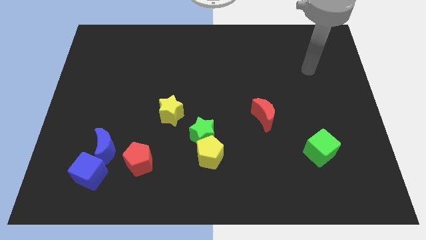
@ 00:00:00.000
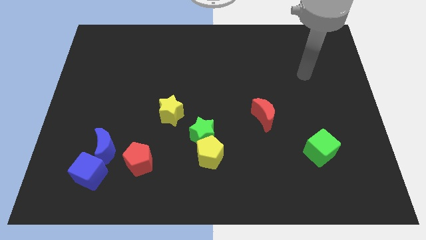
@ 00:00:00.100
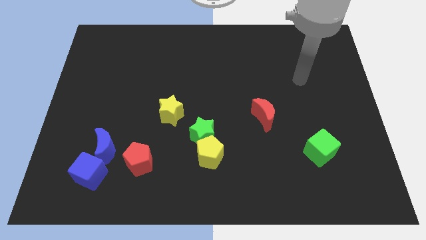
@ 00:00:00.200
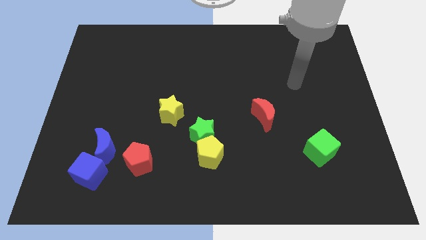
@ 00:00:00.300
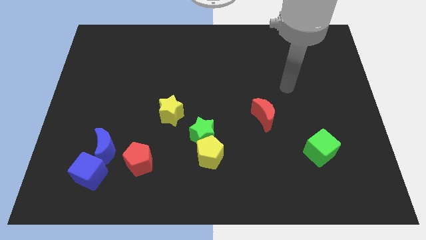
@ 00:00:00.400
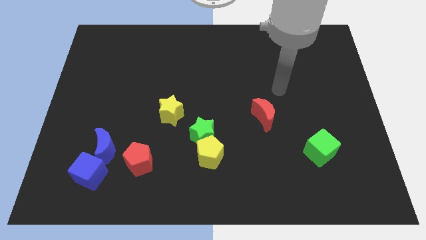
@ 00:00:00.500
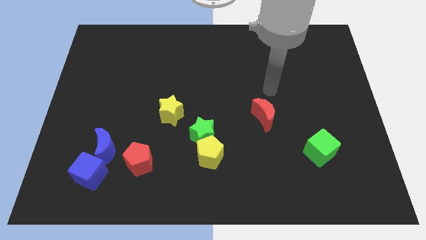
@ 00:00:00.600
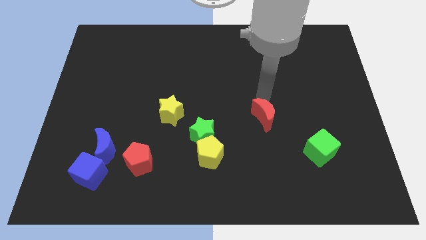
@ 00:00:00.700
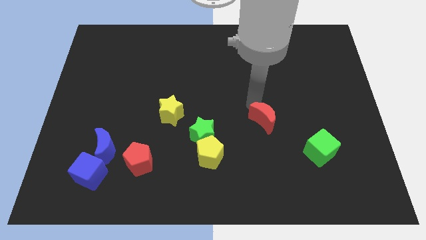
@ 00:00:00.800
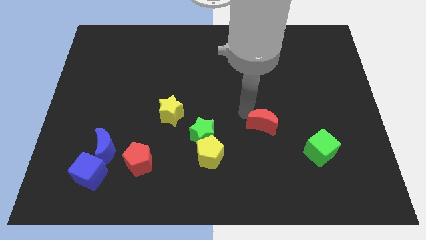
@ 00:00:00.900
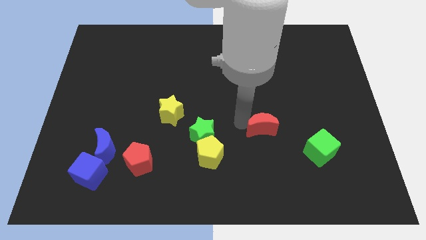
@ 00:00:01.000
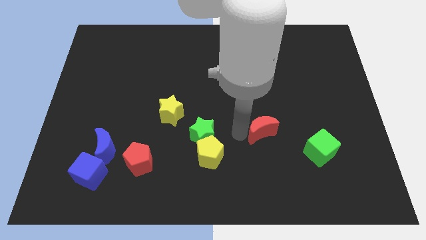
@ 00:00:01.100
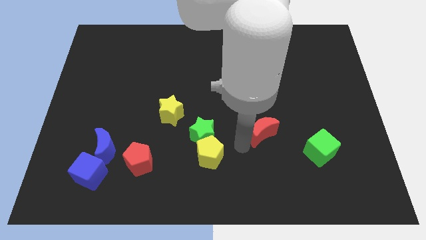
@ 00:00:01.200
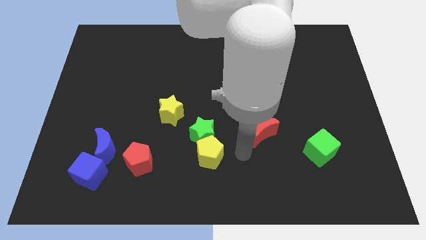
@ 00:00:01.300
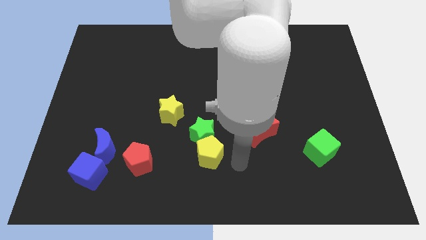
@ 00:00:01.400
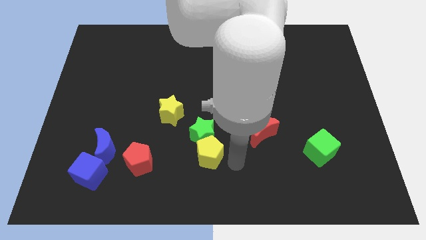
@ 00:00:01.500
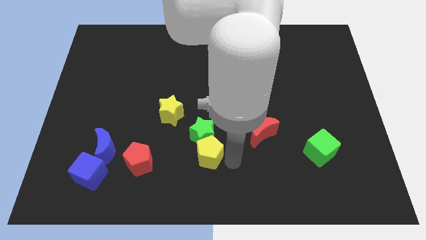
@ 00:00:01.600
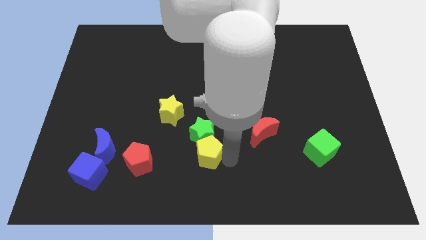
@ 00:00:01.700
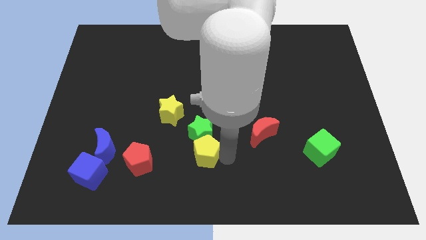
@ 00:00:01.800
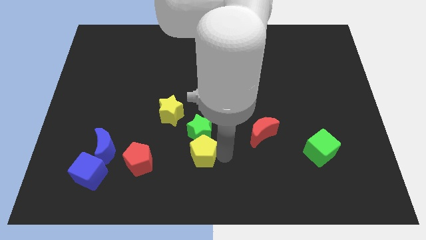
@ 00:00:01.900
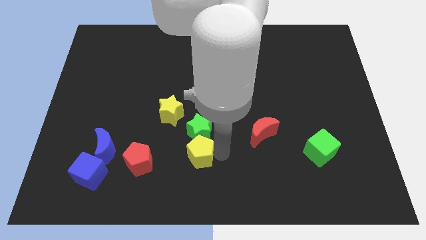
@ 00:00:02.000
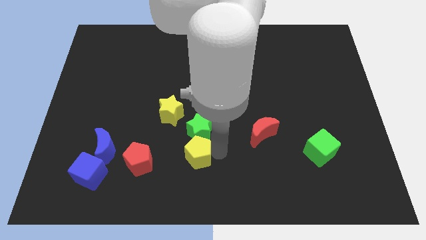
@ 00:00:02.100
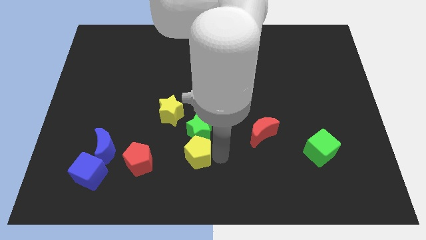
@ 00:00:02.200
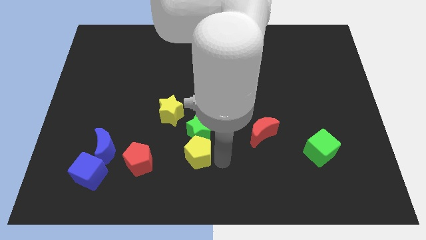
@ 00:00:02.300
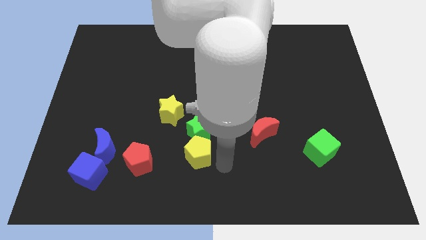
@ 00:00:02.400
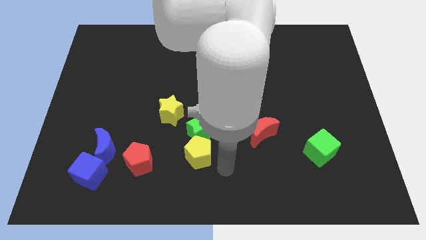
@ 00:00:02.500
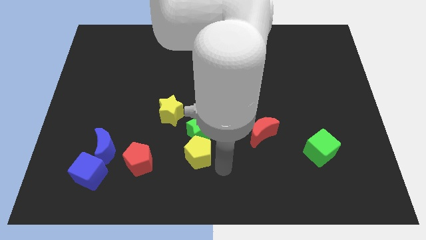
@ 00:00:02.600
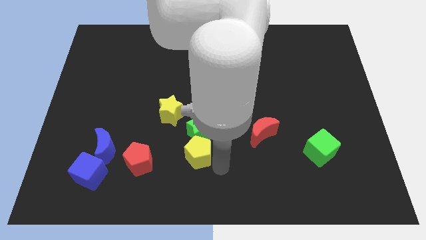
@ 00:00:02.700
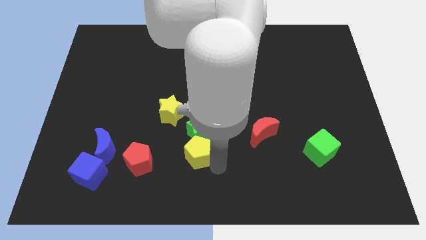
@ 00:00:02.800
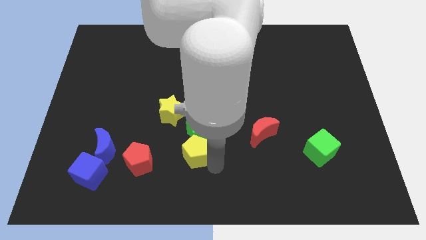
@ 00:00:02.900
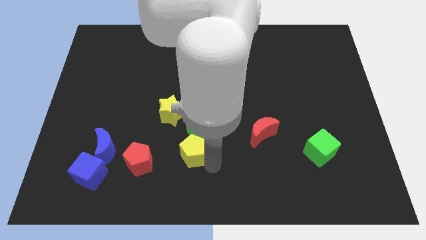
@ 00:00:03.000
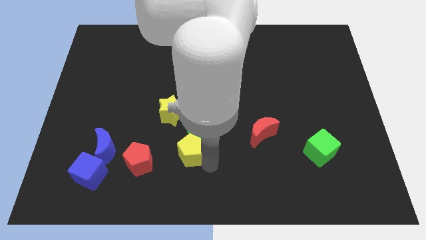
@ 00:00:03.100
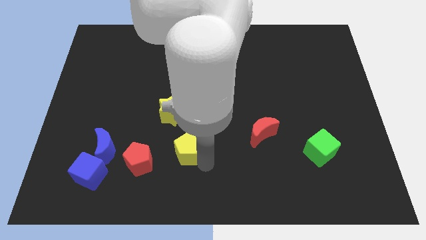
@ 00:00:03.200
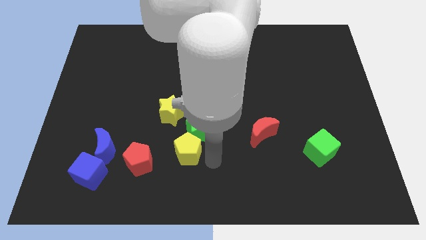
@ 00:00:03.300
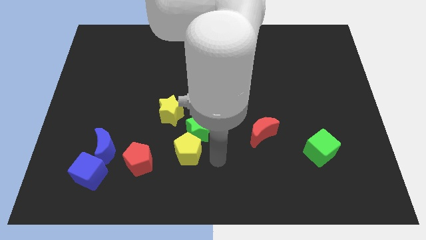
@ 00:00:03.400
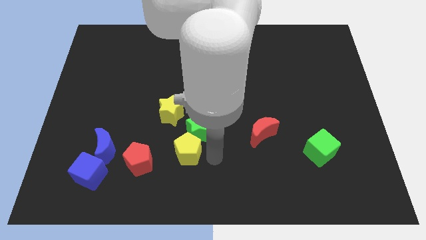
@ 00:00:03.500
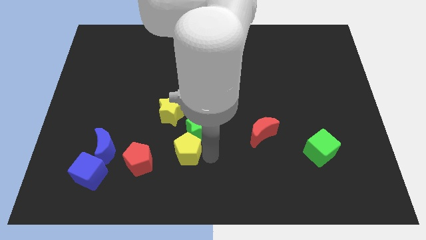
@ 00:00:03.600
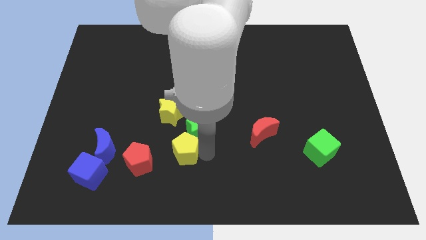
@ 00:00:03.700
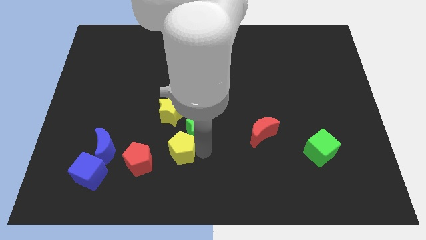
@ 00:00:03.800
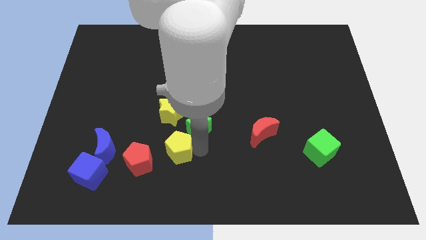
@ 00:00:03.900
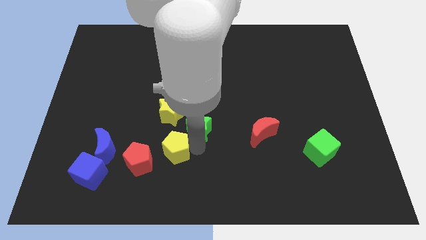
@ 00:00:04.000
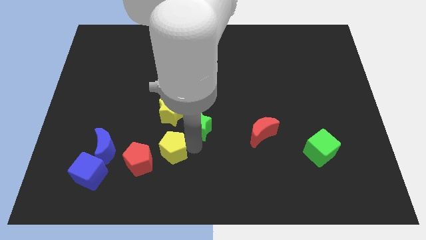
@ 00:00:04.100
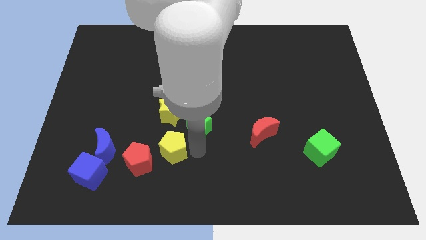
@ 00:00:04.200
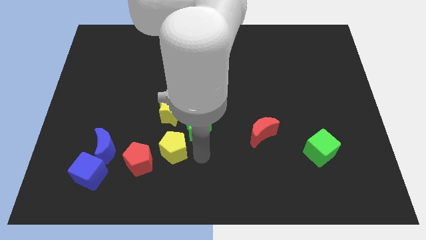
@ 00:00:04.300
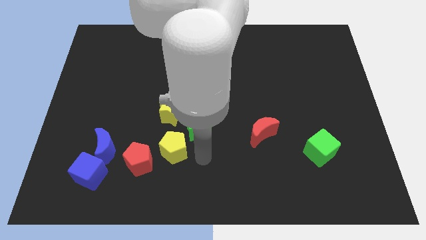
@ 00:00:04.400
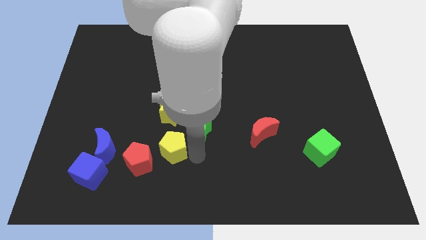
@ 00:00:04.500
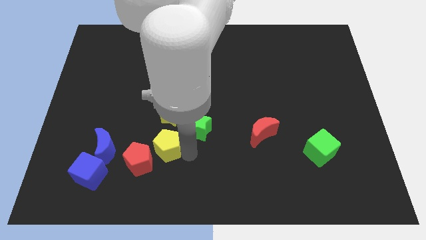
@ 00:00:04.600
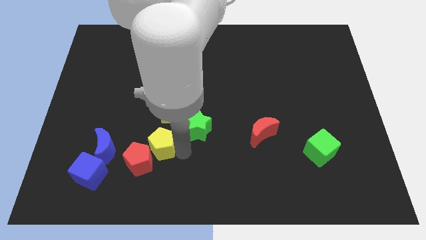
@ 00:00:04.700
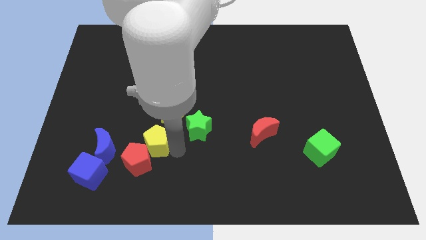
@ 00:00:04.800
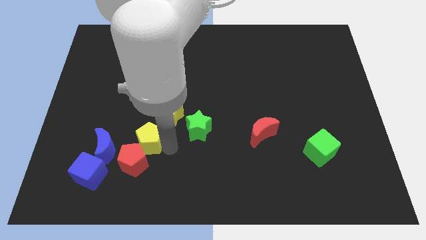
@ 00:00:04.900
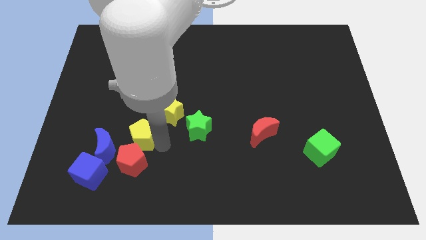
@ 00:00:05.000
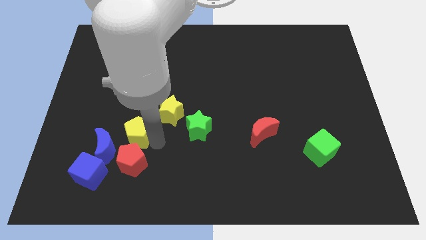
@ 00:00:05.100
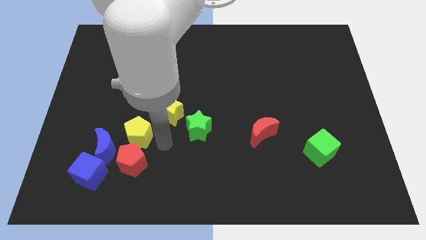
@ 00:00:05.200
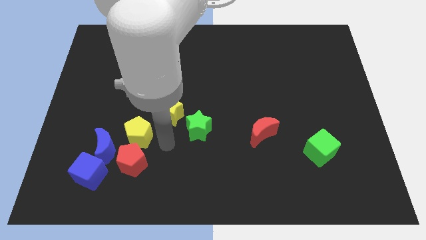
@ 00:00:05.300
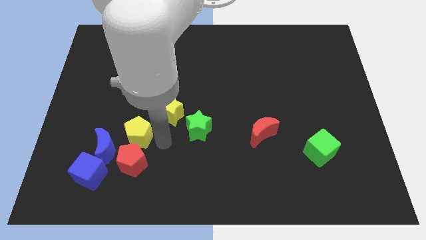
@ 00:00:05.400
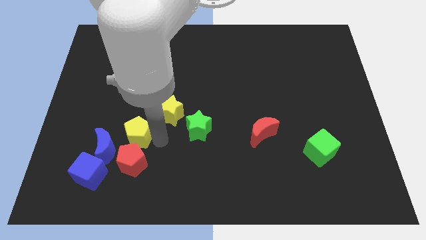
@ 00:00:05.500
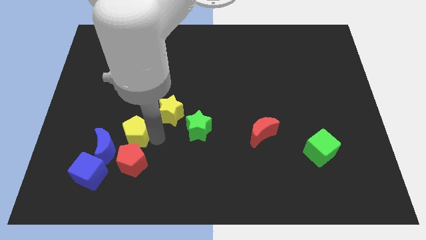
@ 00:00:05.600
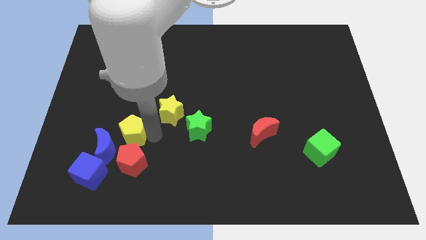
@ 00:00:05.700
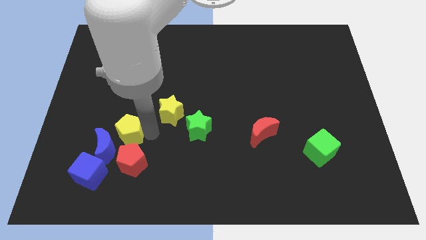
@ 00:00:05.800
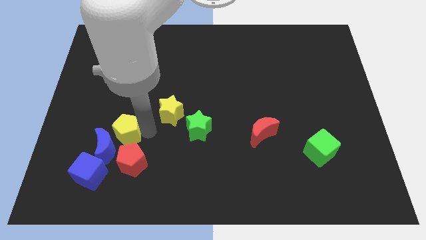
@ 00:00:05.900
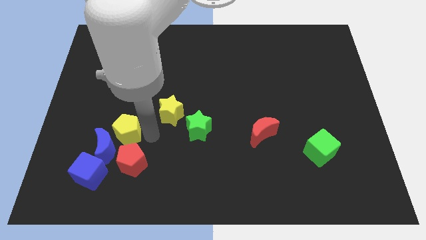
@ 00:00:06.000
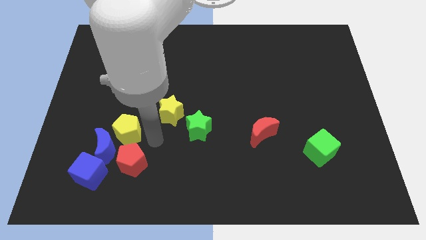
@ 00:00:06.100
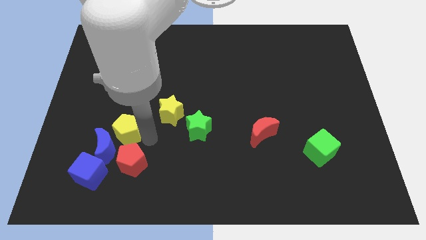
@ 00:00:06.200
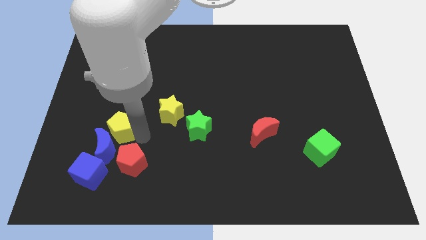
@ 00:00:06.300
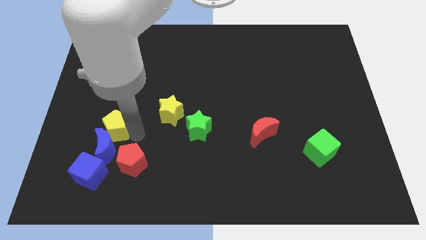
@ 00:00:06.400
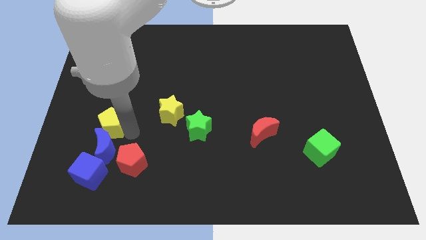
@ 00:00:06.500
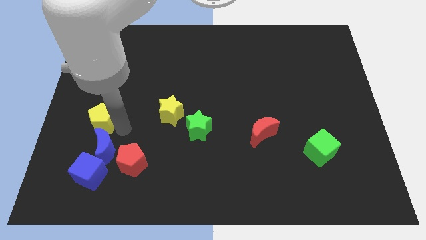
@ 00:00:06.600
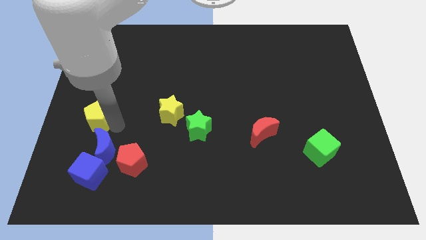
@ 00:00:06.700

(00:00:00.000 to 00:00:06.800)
push the yellow pentagon to the left side
